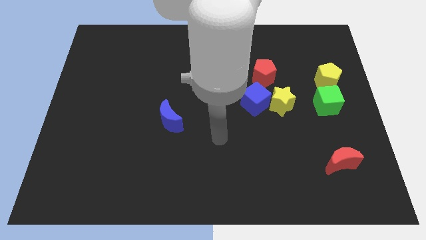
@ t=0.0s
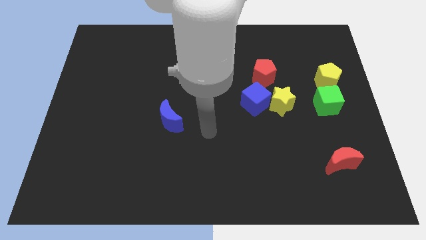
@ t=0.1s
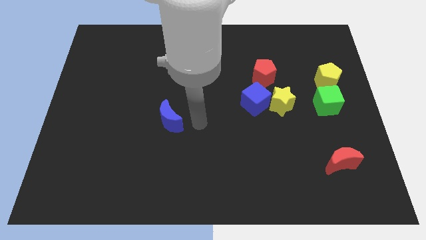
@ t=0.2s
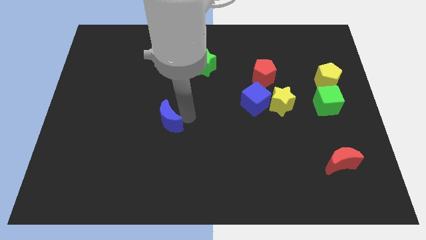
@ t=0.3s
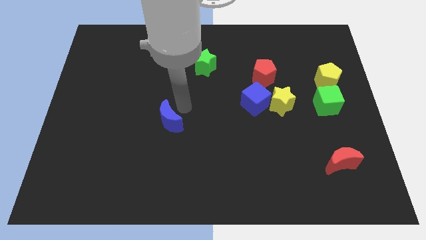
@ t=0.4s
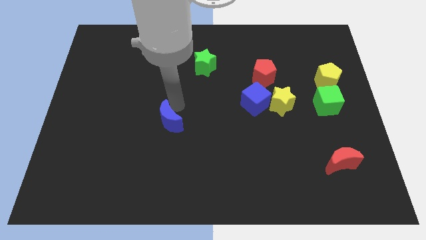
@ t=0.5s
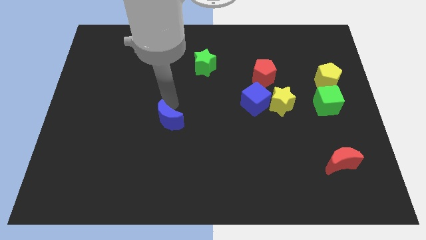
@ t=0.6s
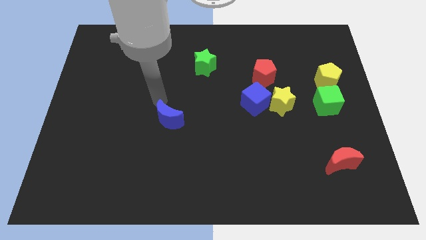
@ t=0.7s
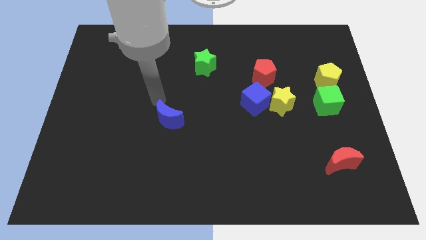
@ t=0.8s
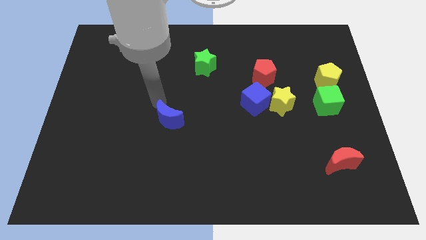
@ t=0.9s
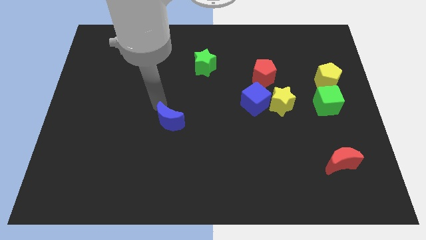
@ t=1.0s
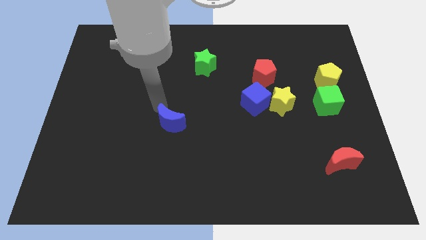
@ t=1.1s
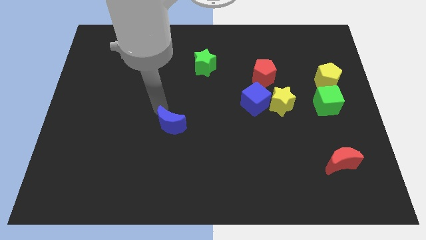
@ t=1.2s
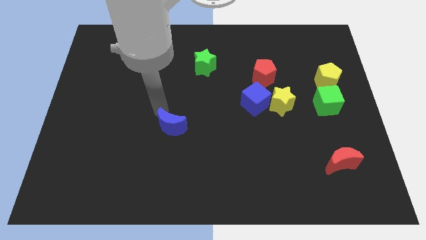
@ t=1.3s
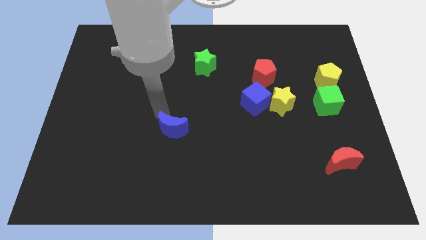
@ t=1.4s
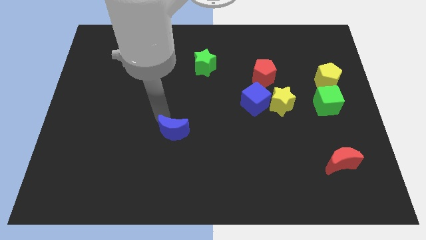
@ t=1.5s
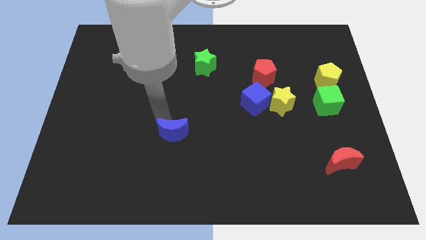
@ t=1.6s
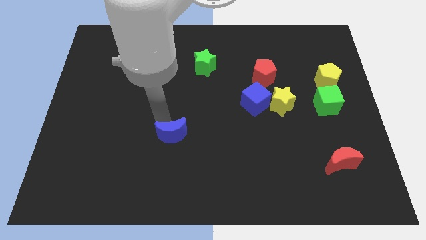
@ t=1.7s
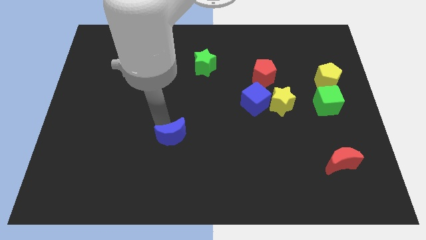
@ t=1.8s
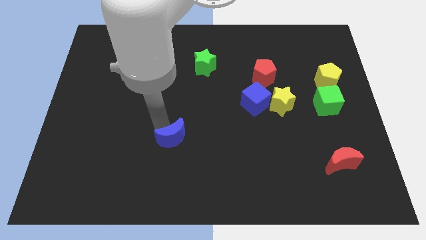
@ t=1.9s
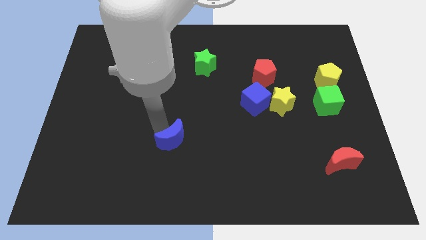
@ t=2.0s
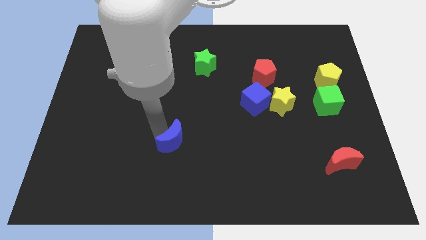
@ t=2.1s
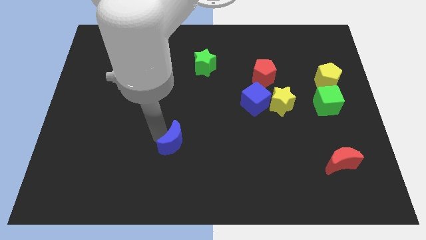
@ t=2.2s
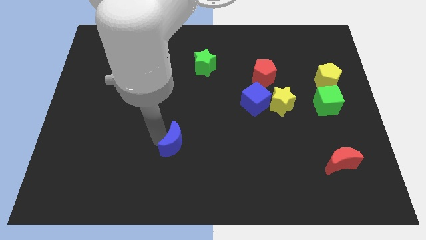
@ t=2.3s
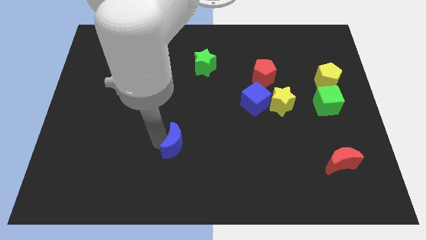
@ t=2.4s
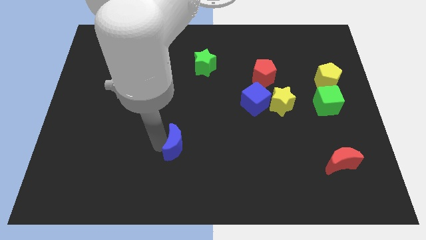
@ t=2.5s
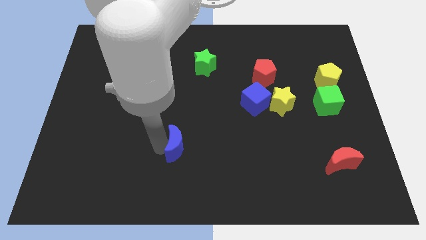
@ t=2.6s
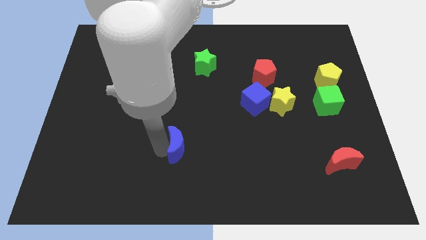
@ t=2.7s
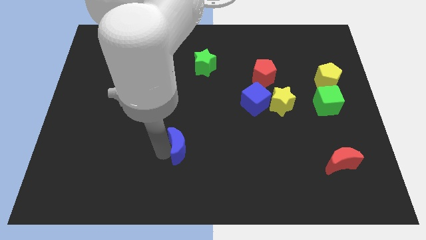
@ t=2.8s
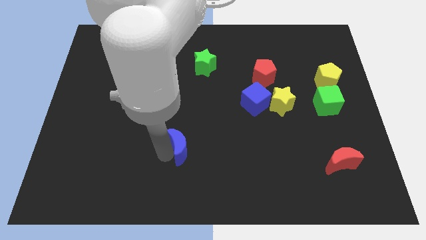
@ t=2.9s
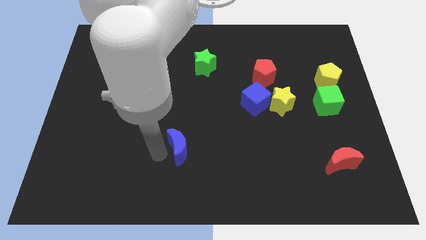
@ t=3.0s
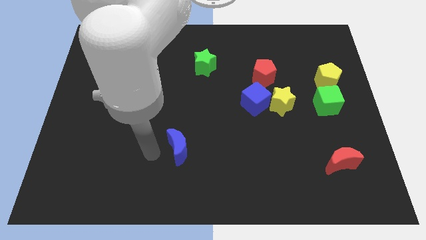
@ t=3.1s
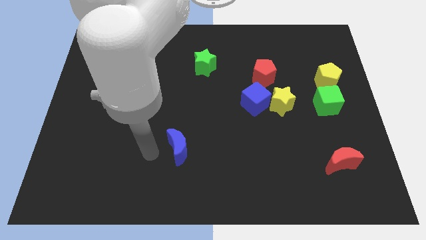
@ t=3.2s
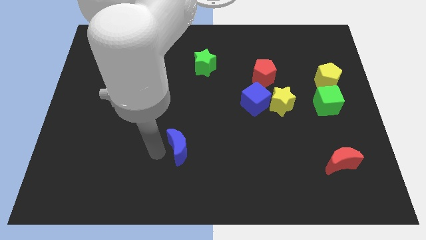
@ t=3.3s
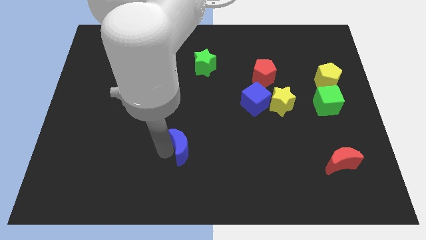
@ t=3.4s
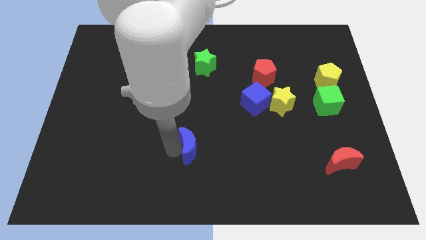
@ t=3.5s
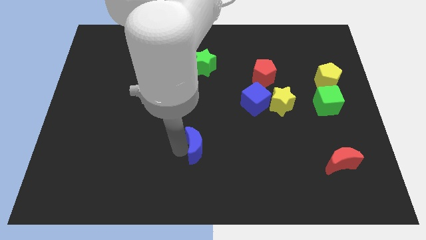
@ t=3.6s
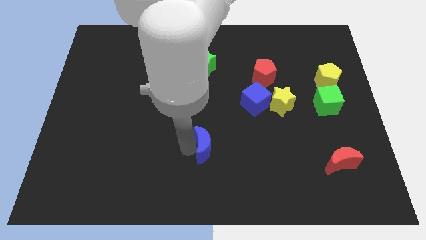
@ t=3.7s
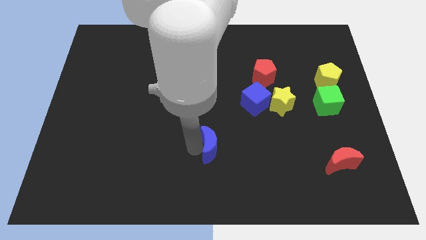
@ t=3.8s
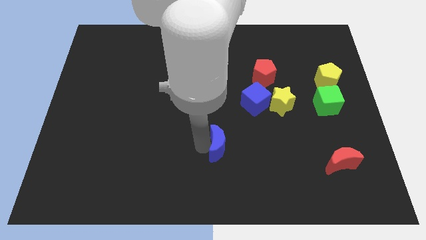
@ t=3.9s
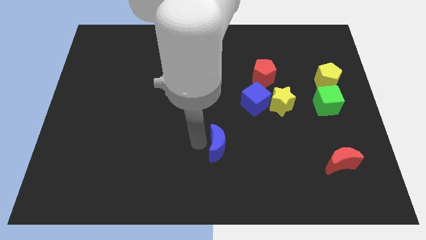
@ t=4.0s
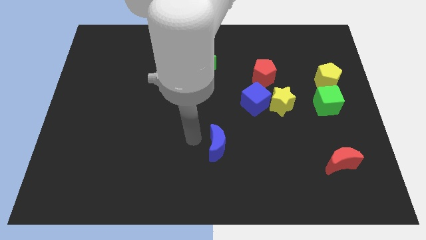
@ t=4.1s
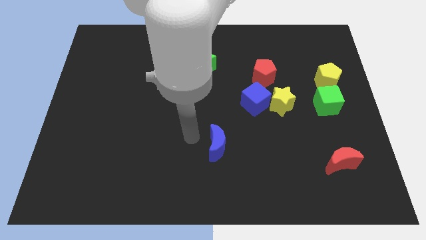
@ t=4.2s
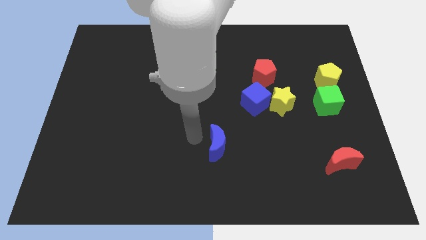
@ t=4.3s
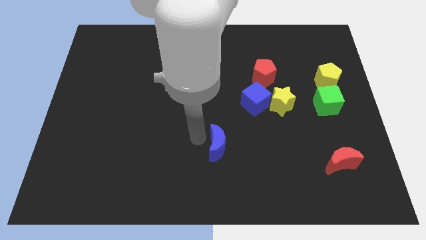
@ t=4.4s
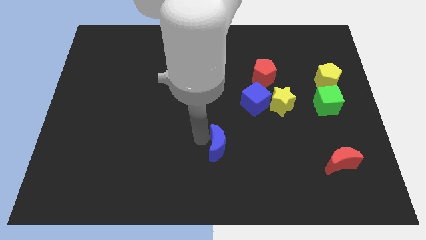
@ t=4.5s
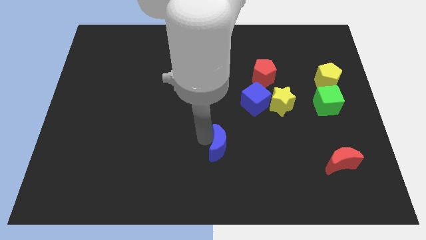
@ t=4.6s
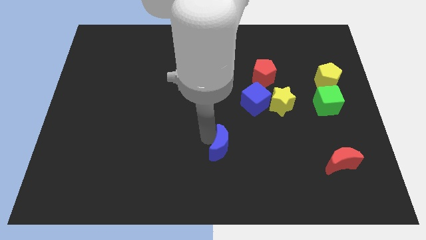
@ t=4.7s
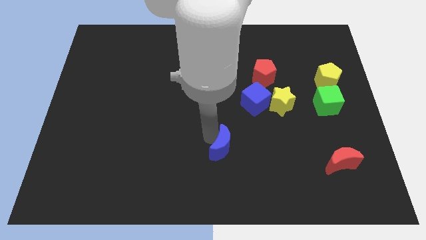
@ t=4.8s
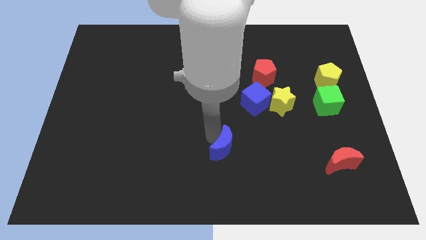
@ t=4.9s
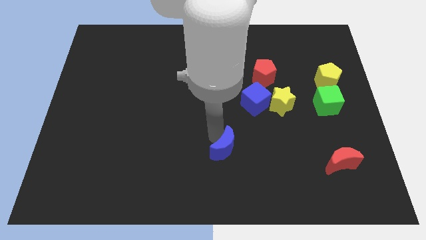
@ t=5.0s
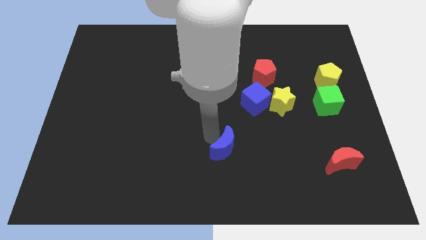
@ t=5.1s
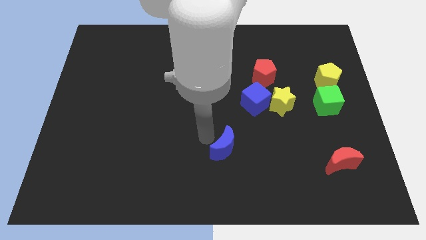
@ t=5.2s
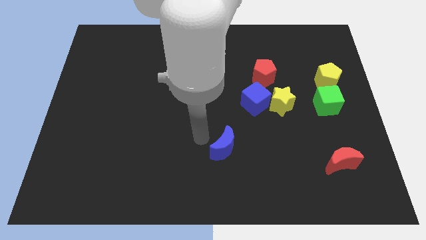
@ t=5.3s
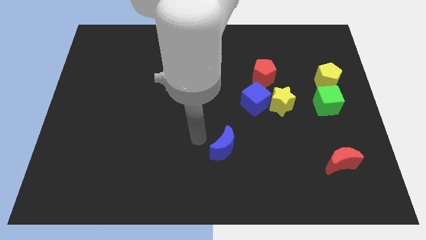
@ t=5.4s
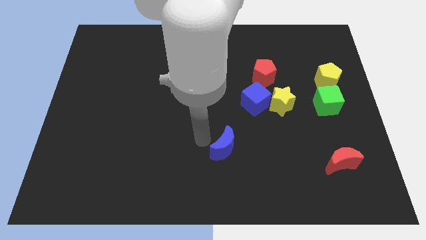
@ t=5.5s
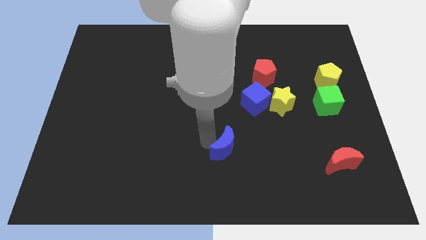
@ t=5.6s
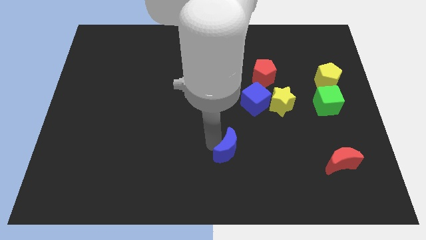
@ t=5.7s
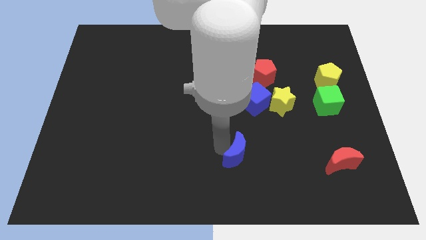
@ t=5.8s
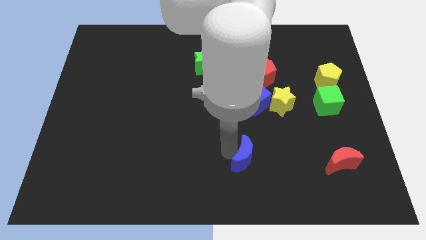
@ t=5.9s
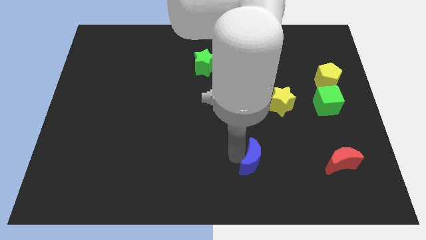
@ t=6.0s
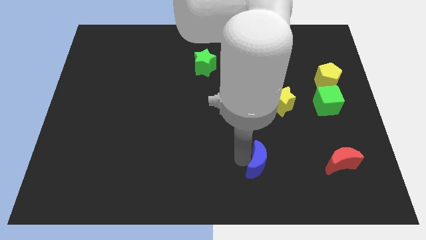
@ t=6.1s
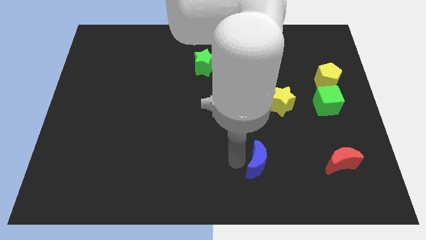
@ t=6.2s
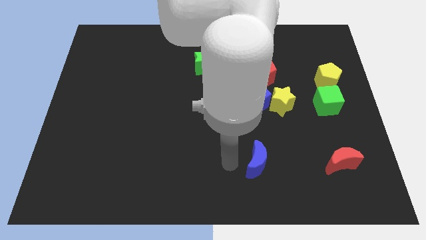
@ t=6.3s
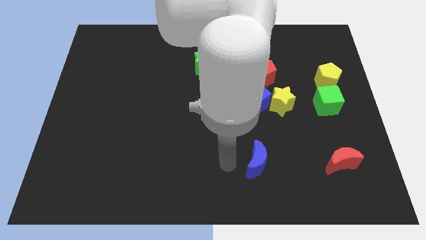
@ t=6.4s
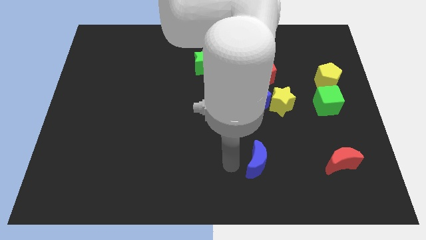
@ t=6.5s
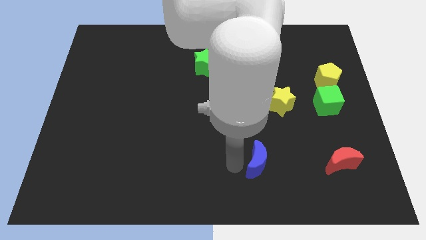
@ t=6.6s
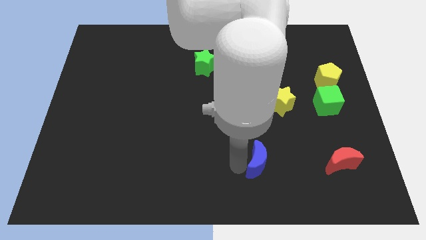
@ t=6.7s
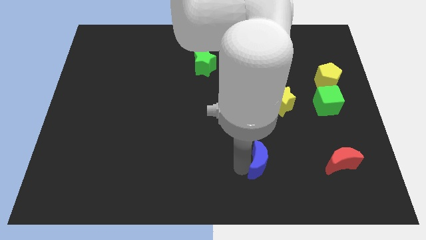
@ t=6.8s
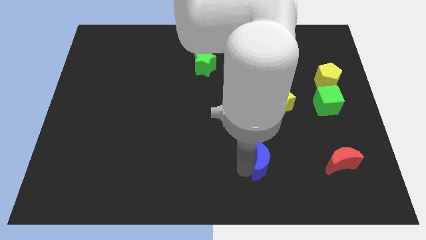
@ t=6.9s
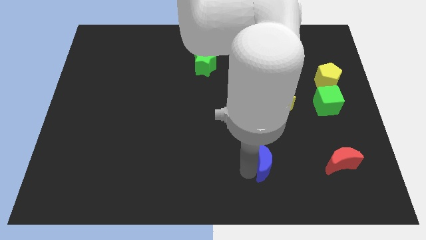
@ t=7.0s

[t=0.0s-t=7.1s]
put the blue moon to the left of the red moon

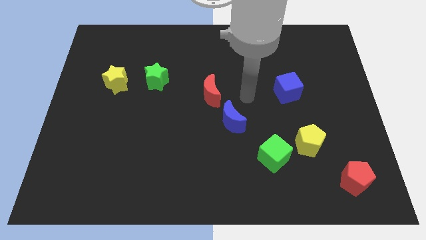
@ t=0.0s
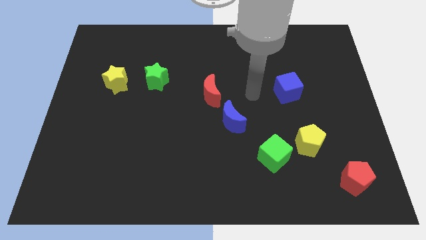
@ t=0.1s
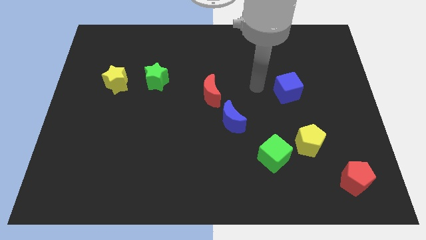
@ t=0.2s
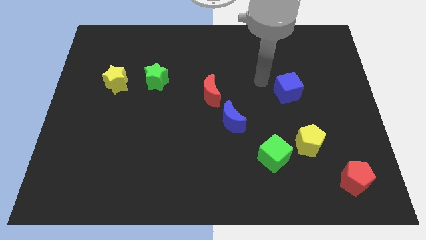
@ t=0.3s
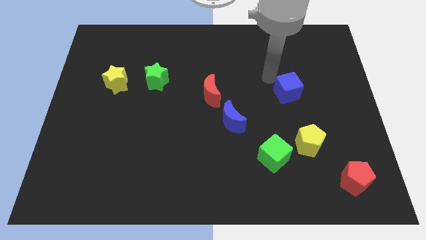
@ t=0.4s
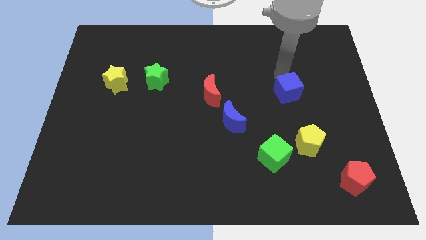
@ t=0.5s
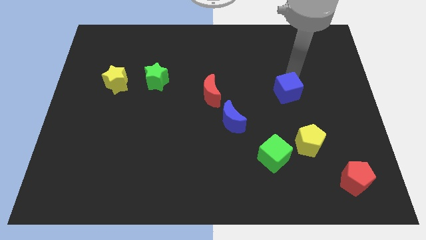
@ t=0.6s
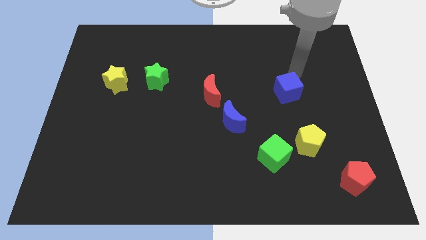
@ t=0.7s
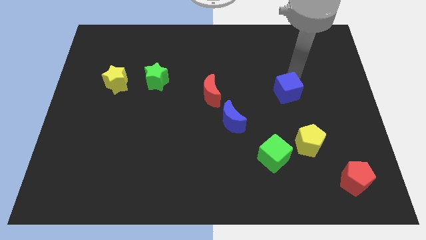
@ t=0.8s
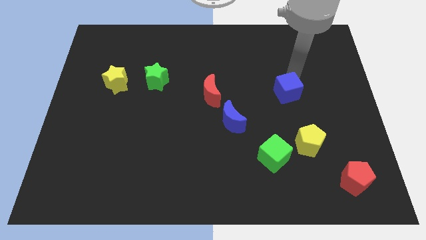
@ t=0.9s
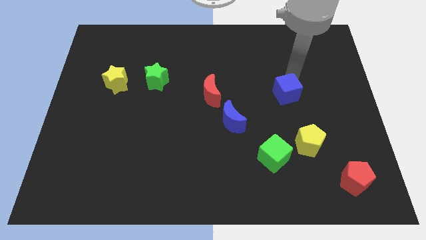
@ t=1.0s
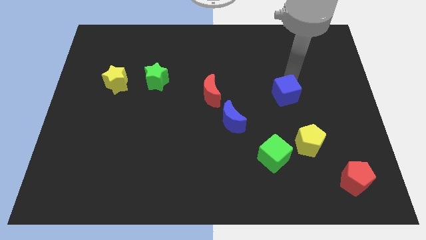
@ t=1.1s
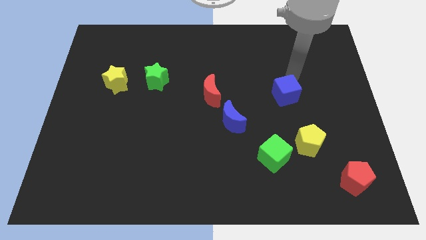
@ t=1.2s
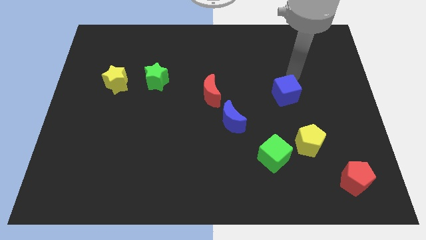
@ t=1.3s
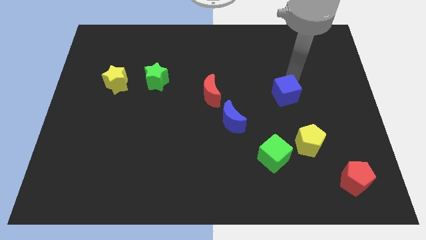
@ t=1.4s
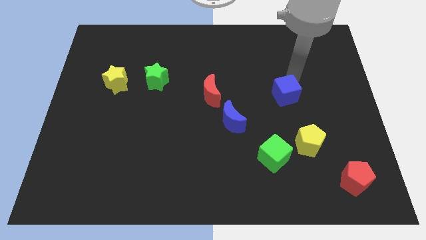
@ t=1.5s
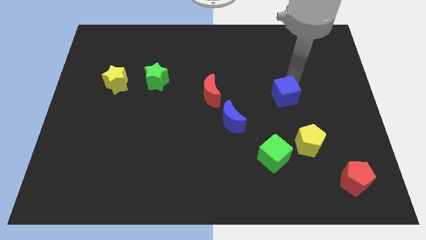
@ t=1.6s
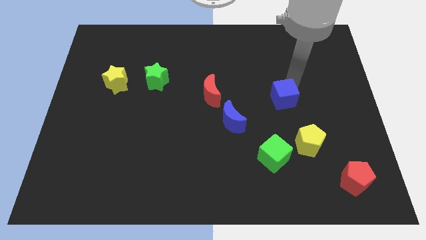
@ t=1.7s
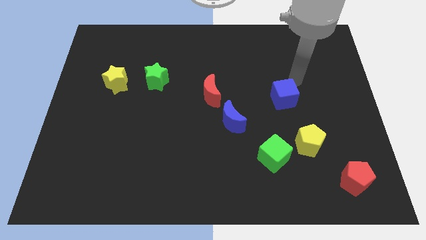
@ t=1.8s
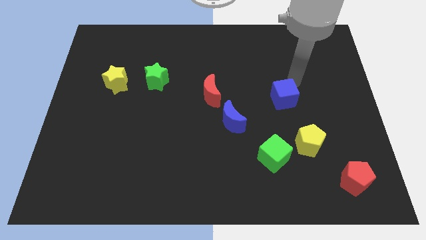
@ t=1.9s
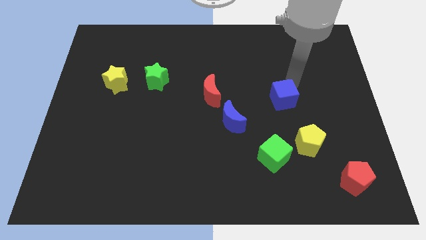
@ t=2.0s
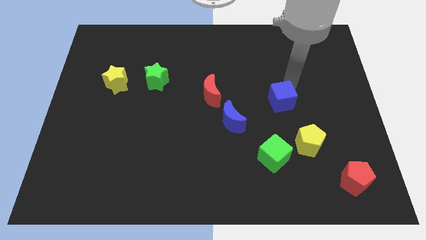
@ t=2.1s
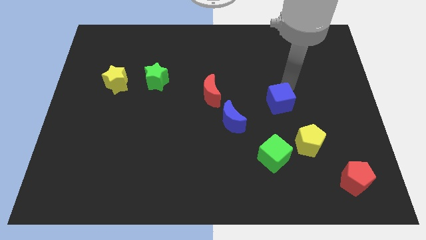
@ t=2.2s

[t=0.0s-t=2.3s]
put the blue cube to the top side of the green cube
